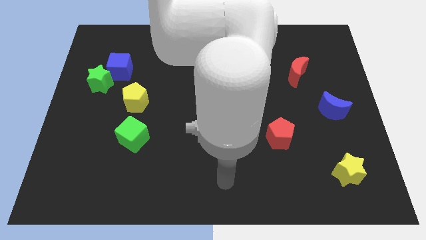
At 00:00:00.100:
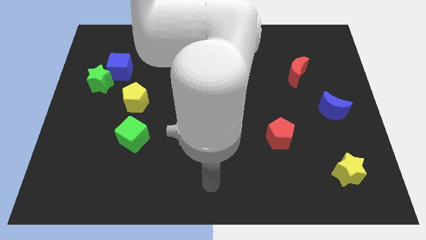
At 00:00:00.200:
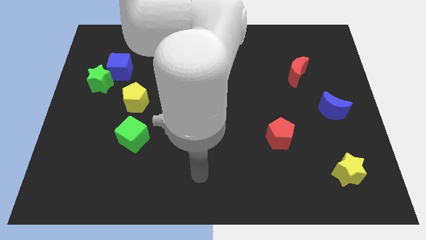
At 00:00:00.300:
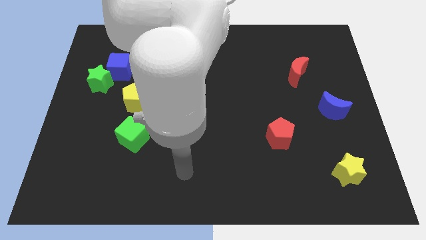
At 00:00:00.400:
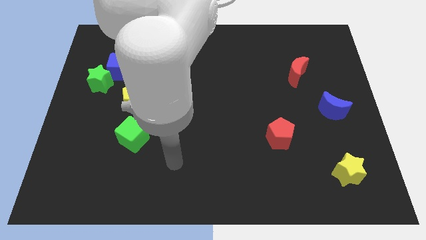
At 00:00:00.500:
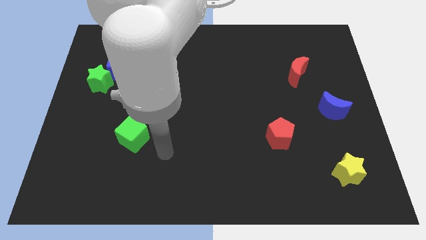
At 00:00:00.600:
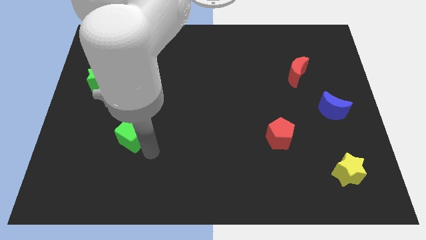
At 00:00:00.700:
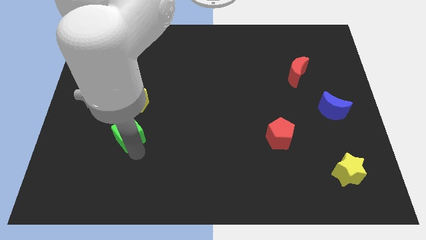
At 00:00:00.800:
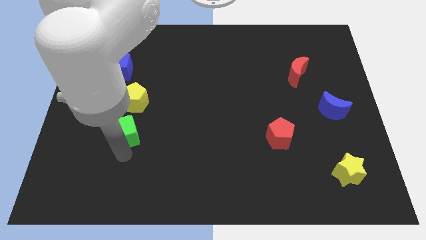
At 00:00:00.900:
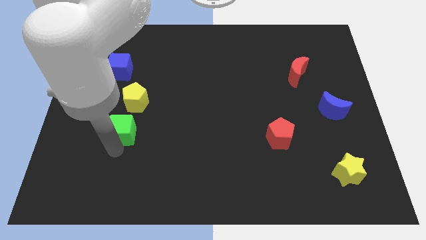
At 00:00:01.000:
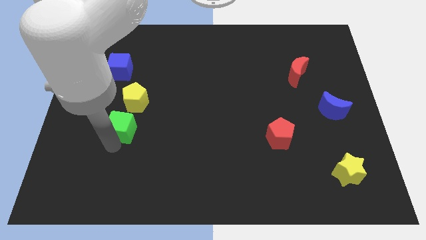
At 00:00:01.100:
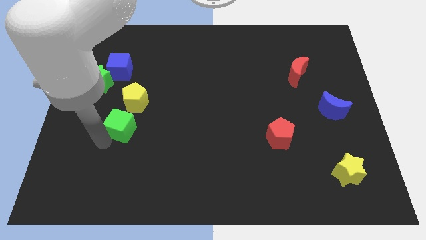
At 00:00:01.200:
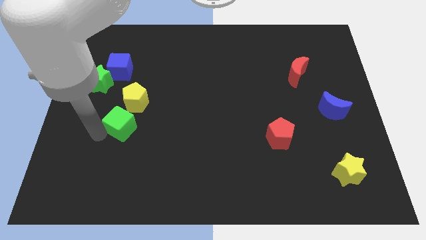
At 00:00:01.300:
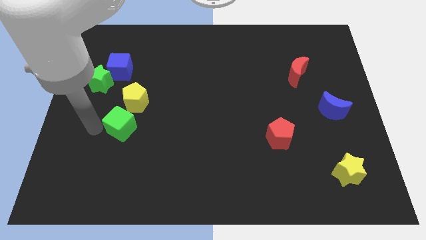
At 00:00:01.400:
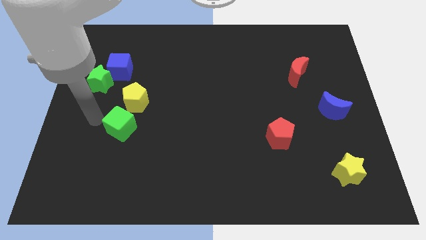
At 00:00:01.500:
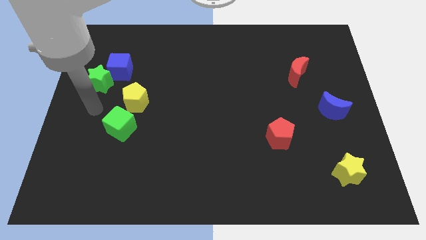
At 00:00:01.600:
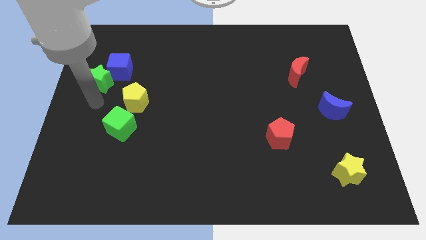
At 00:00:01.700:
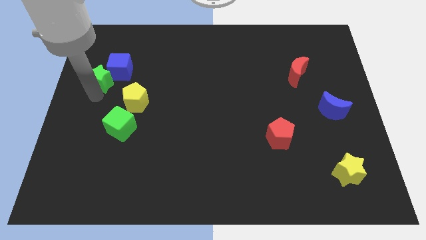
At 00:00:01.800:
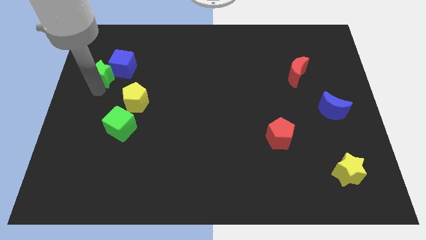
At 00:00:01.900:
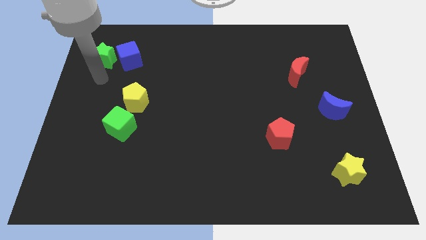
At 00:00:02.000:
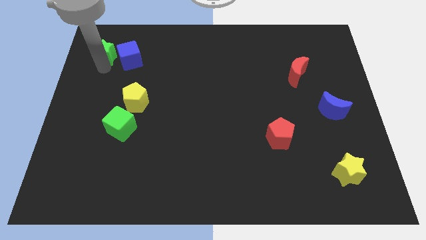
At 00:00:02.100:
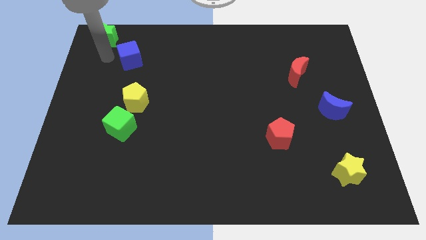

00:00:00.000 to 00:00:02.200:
separate the blue cube from the green star

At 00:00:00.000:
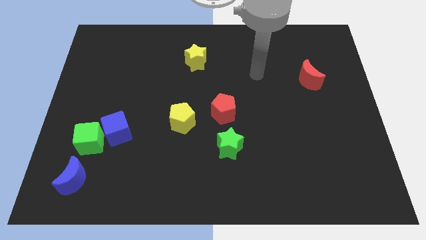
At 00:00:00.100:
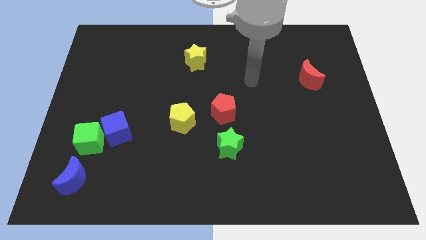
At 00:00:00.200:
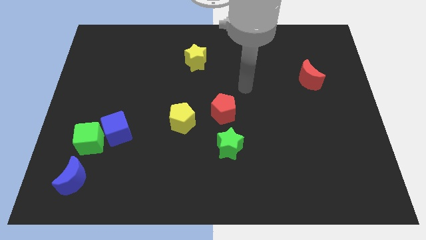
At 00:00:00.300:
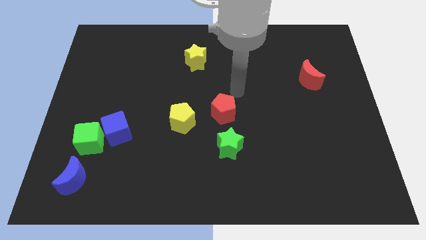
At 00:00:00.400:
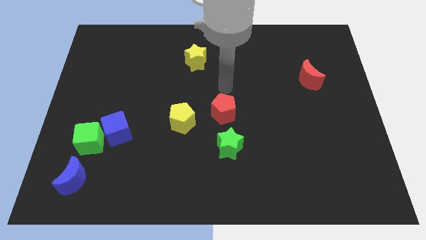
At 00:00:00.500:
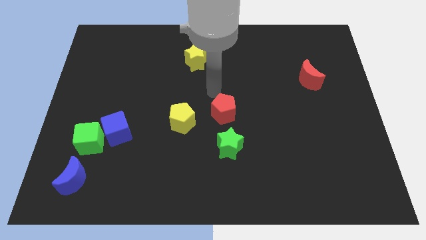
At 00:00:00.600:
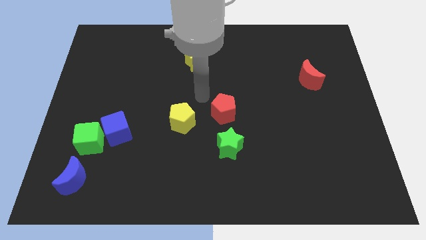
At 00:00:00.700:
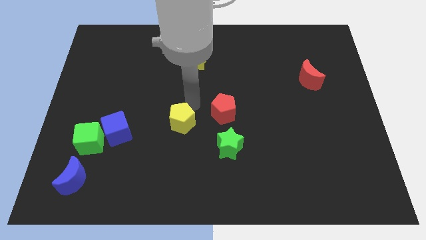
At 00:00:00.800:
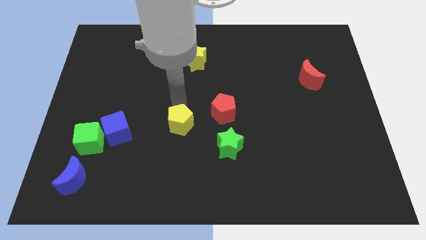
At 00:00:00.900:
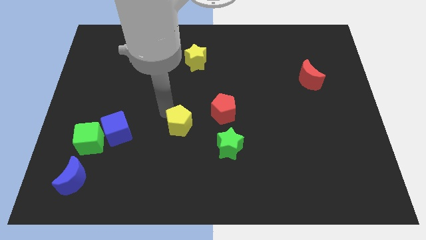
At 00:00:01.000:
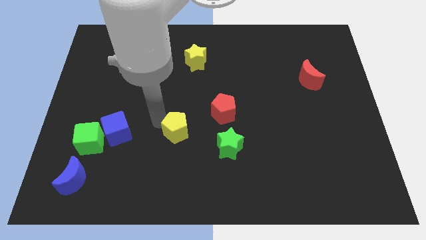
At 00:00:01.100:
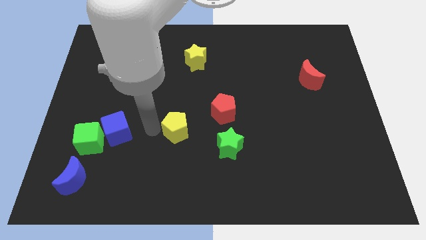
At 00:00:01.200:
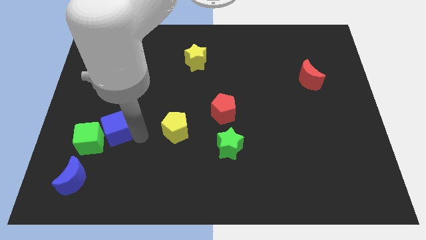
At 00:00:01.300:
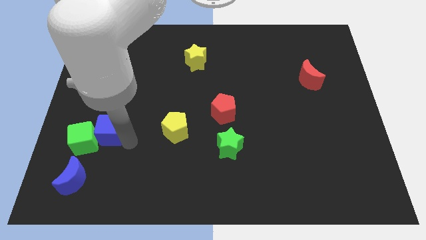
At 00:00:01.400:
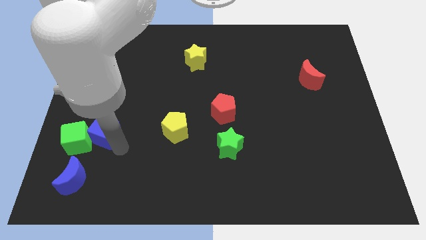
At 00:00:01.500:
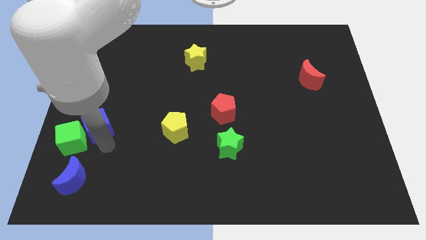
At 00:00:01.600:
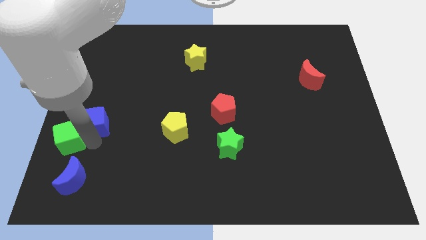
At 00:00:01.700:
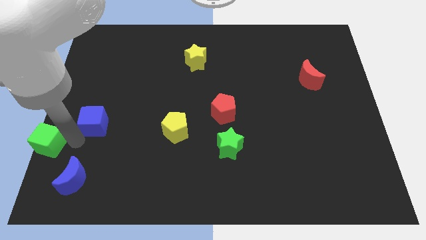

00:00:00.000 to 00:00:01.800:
pull the blue cube apart from the green cube

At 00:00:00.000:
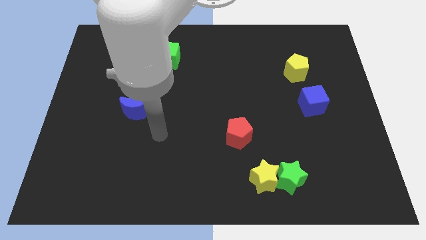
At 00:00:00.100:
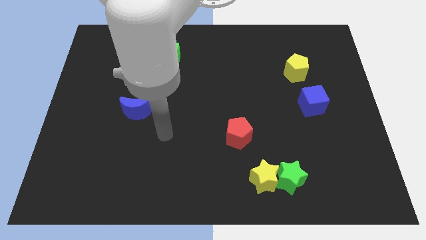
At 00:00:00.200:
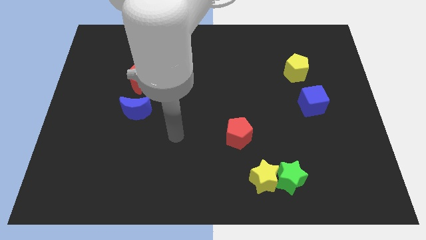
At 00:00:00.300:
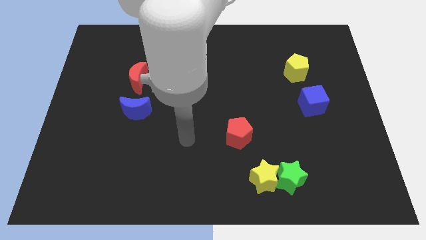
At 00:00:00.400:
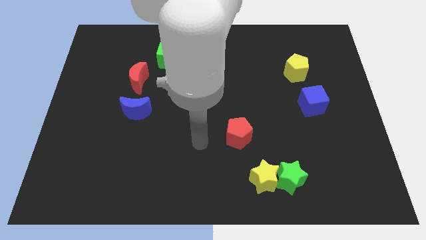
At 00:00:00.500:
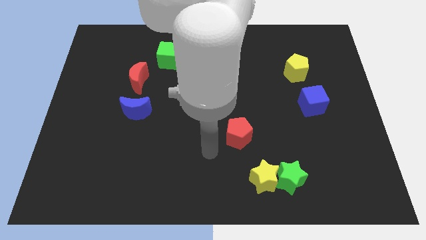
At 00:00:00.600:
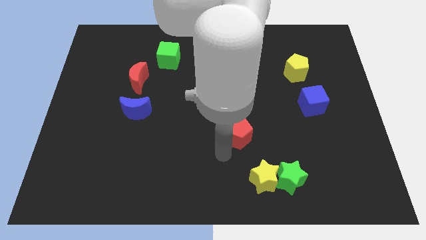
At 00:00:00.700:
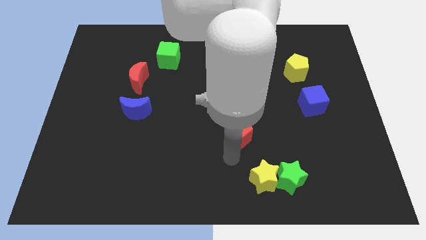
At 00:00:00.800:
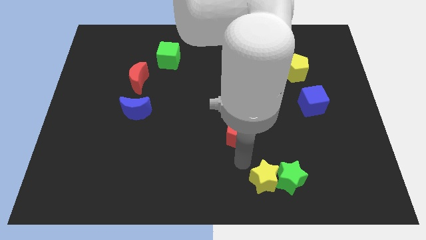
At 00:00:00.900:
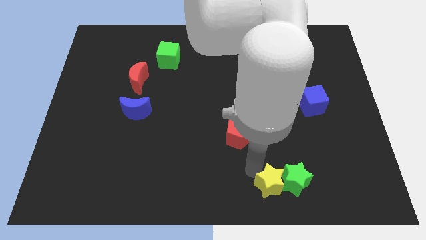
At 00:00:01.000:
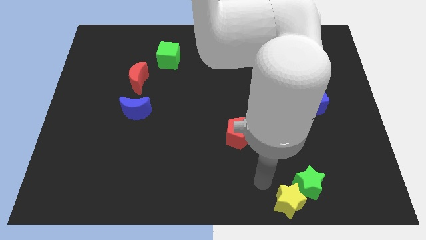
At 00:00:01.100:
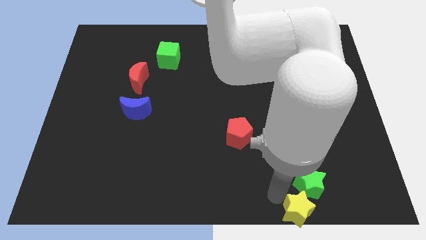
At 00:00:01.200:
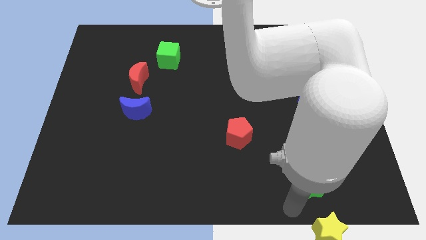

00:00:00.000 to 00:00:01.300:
separate the green star from the yellow star

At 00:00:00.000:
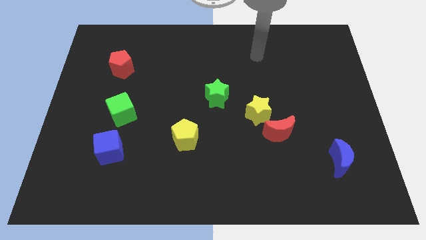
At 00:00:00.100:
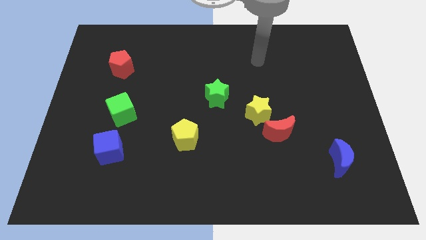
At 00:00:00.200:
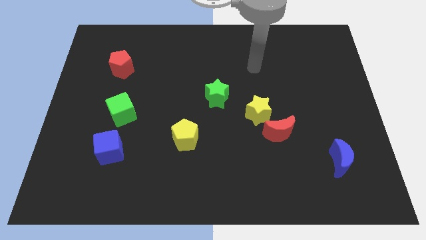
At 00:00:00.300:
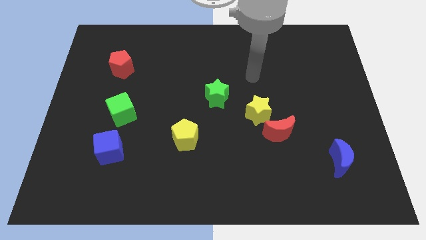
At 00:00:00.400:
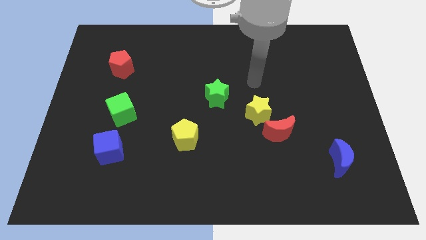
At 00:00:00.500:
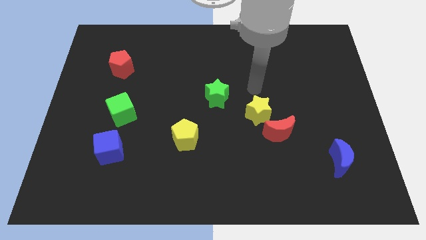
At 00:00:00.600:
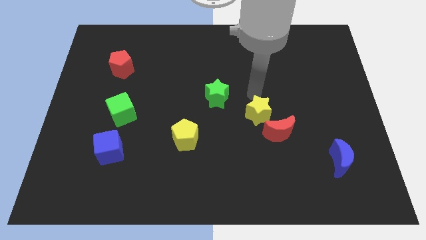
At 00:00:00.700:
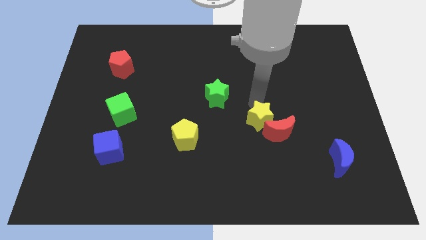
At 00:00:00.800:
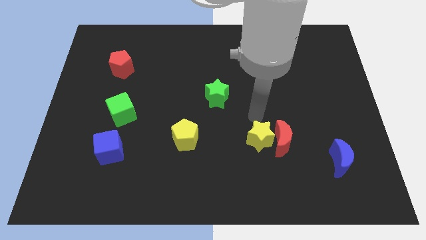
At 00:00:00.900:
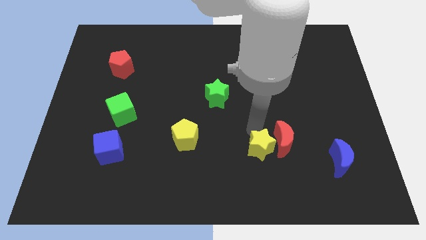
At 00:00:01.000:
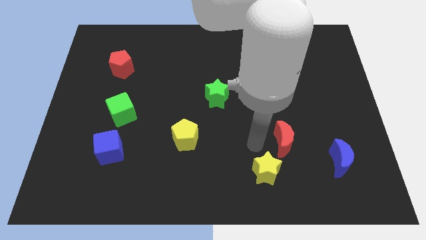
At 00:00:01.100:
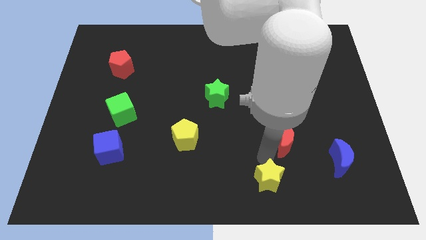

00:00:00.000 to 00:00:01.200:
move the red moon away from the yellow star

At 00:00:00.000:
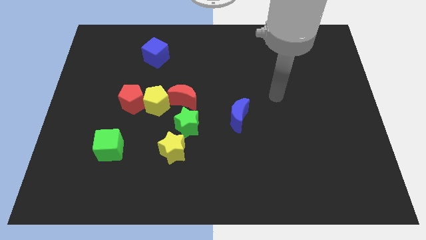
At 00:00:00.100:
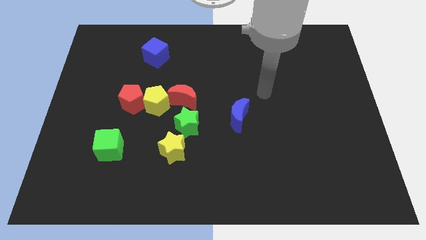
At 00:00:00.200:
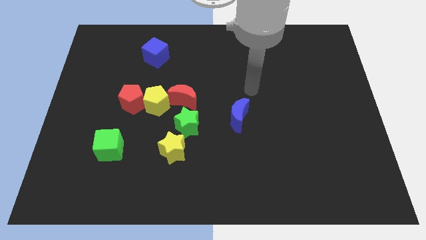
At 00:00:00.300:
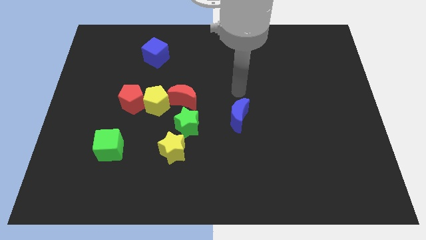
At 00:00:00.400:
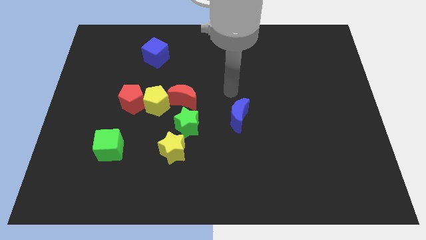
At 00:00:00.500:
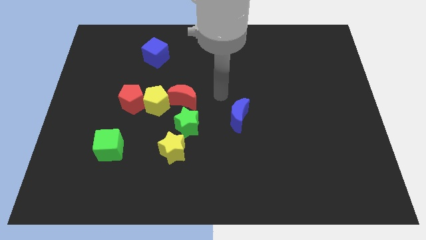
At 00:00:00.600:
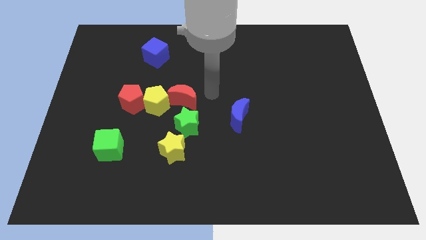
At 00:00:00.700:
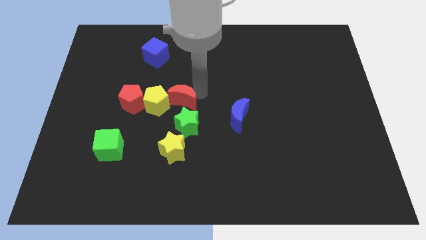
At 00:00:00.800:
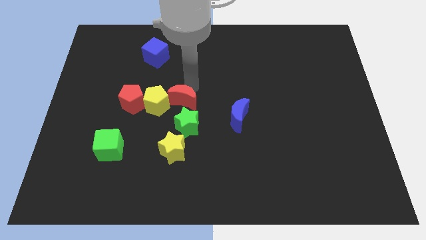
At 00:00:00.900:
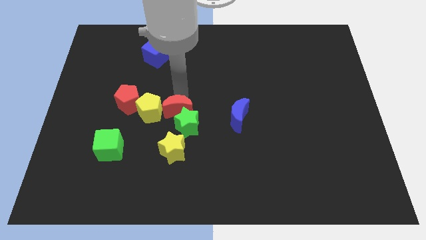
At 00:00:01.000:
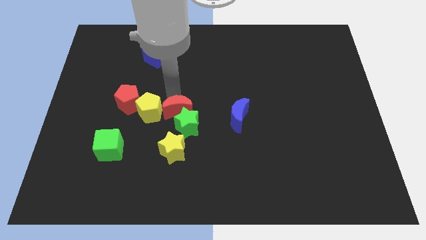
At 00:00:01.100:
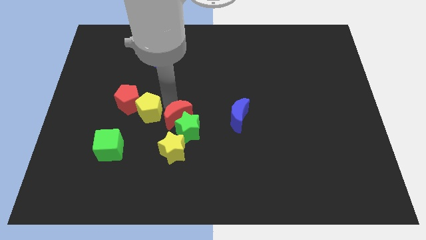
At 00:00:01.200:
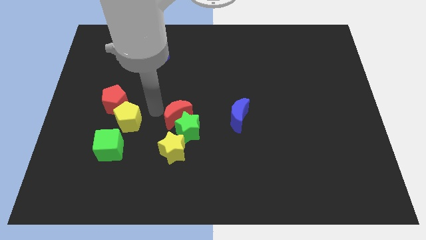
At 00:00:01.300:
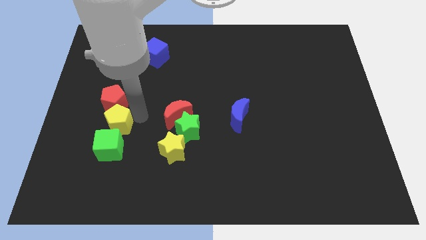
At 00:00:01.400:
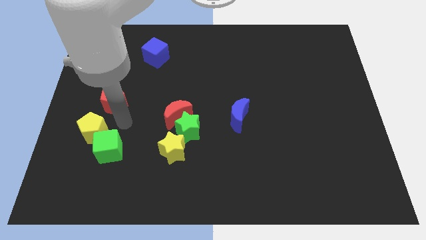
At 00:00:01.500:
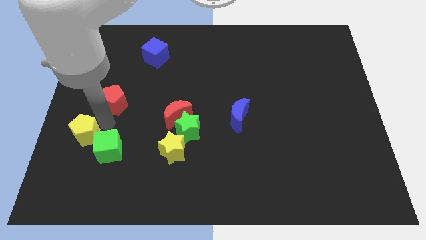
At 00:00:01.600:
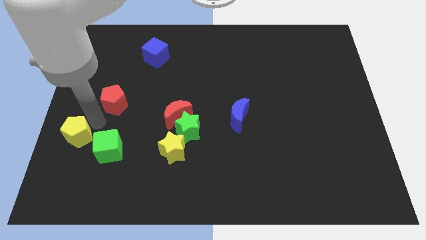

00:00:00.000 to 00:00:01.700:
pull the red pentagon apart from the yellow pentagon

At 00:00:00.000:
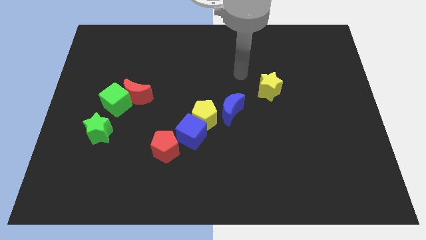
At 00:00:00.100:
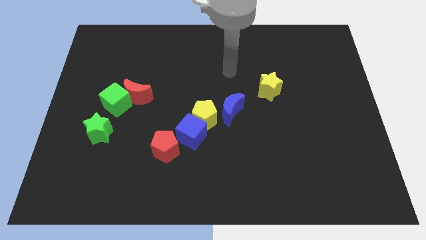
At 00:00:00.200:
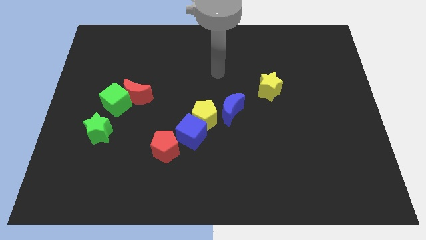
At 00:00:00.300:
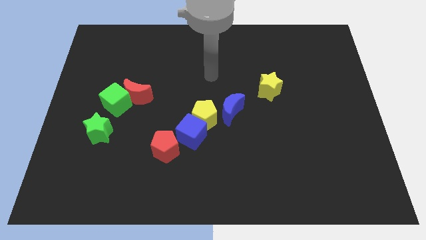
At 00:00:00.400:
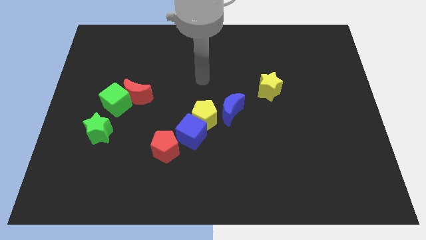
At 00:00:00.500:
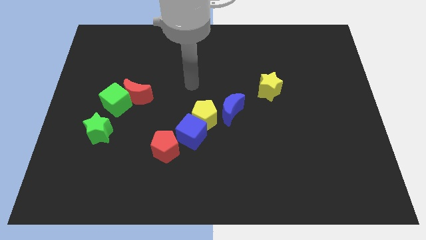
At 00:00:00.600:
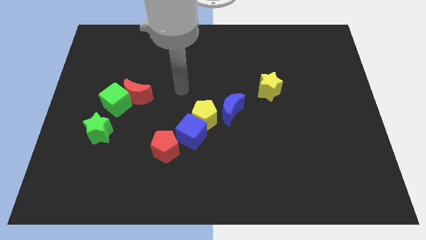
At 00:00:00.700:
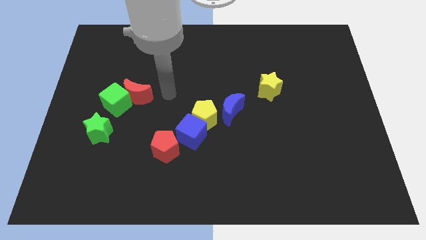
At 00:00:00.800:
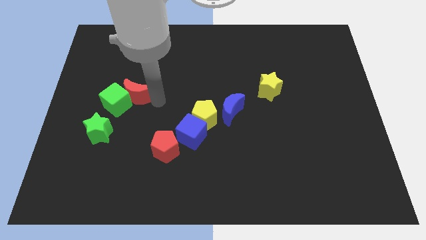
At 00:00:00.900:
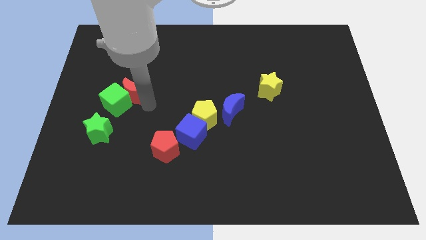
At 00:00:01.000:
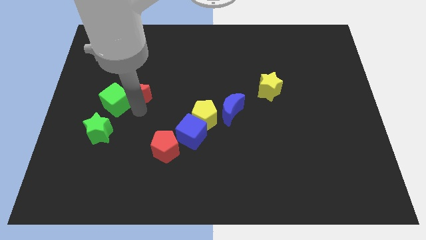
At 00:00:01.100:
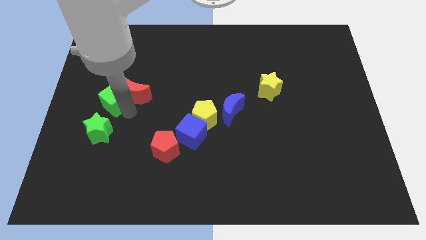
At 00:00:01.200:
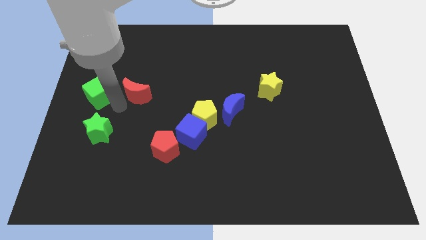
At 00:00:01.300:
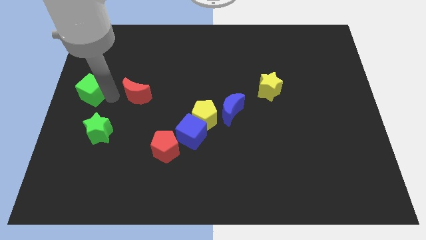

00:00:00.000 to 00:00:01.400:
separate the red moon from the green cube
